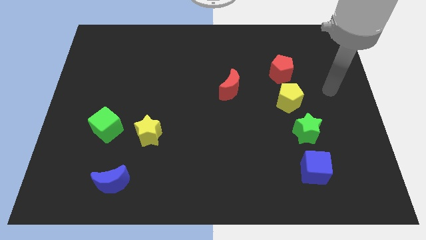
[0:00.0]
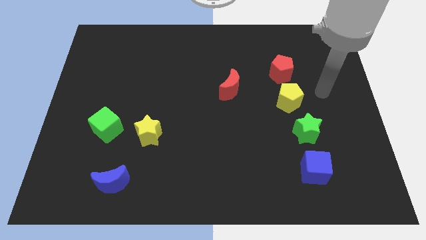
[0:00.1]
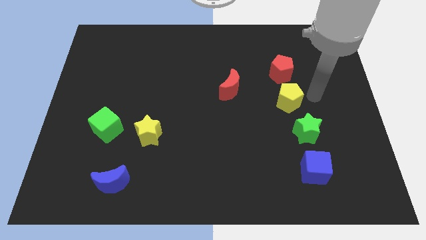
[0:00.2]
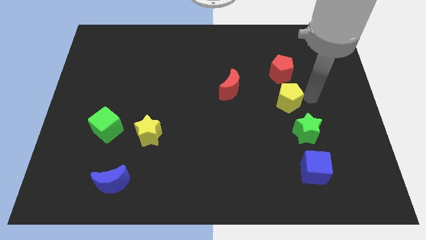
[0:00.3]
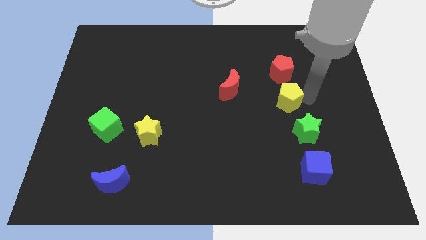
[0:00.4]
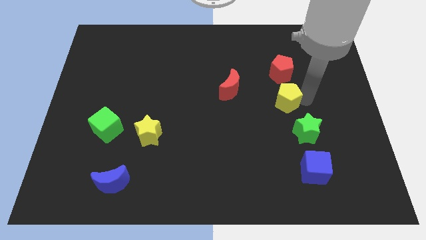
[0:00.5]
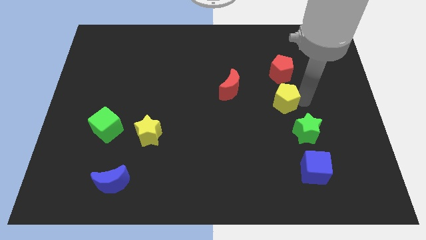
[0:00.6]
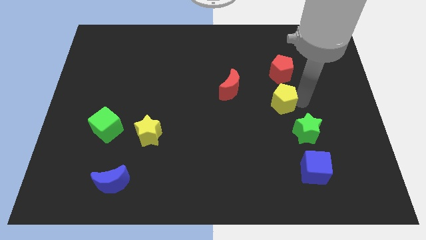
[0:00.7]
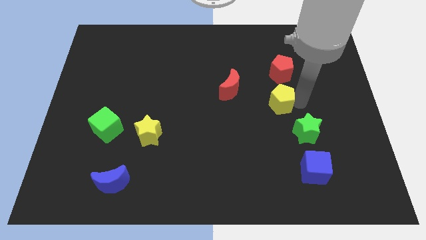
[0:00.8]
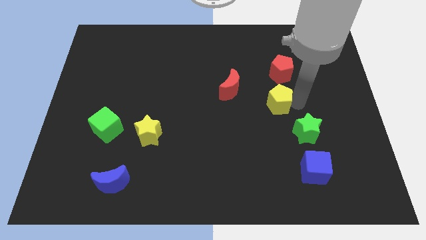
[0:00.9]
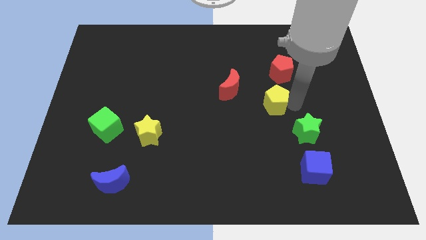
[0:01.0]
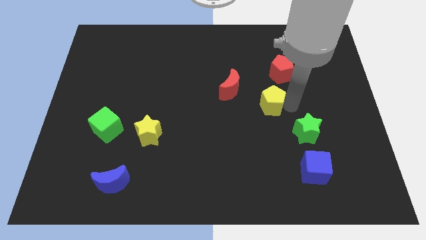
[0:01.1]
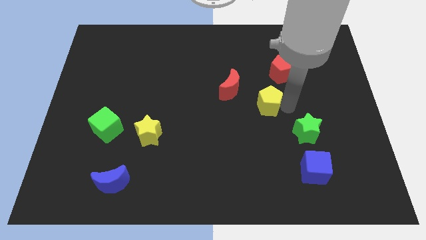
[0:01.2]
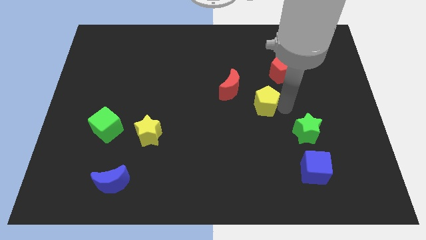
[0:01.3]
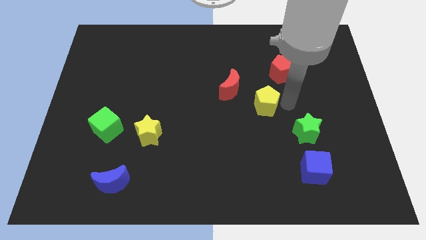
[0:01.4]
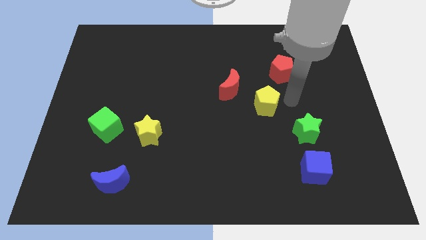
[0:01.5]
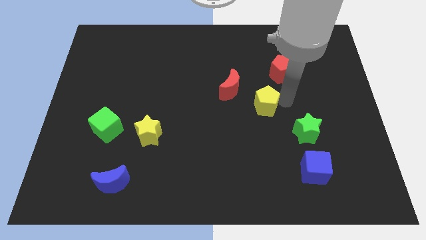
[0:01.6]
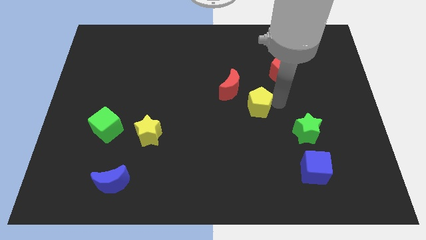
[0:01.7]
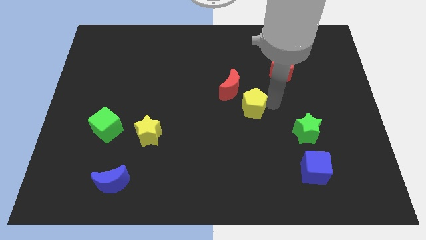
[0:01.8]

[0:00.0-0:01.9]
separate the yellow pentagon from the green star and red pentagon

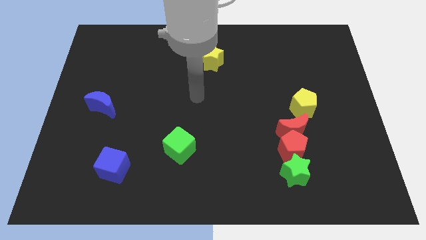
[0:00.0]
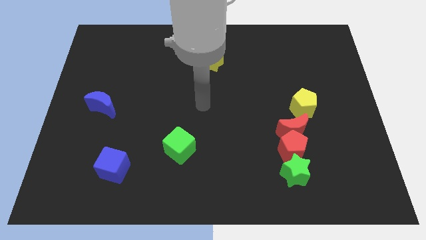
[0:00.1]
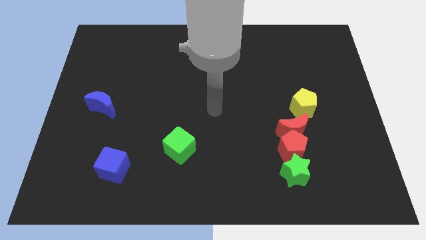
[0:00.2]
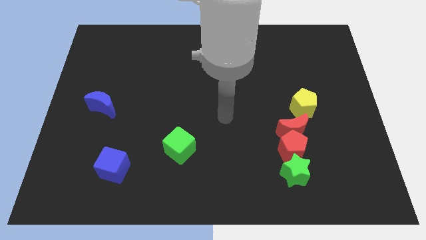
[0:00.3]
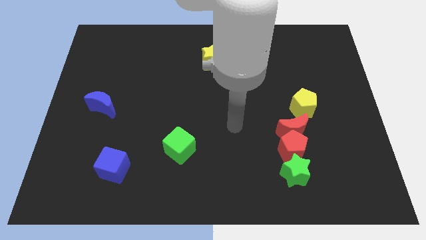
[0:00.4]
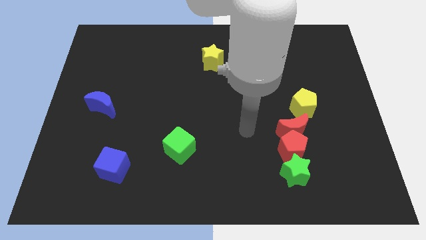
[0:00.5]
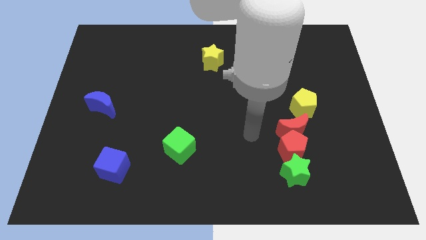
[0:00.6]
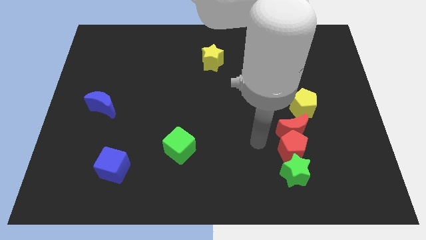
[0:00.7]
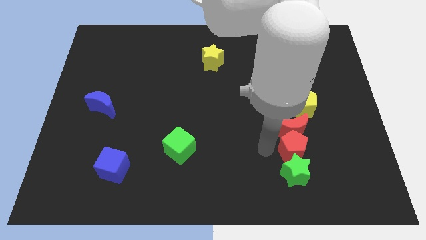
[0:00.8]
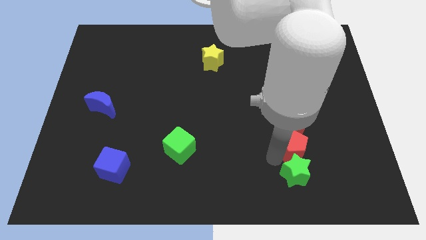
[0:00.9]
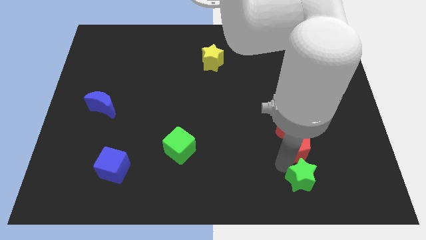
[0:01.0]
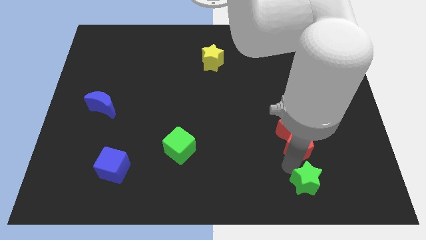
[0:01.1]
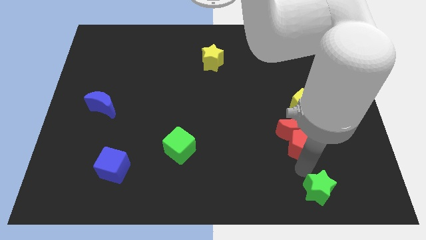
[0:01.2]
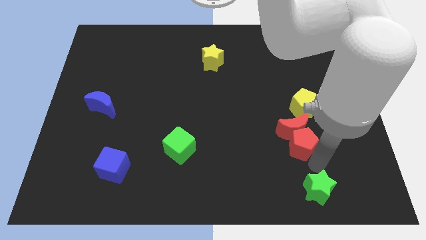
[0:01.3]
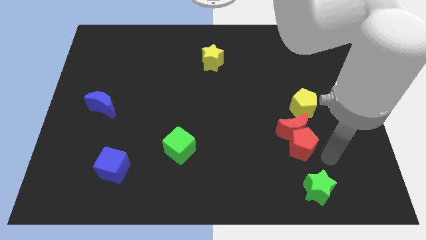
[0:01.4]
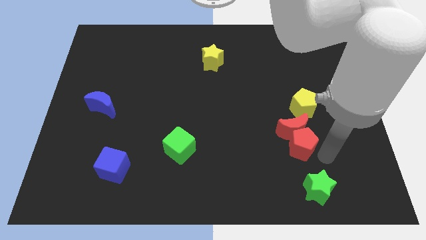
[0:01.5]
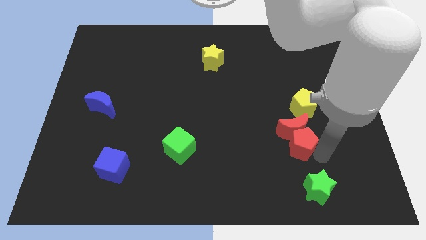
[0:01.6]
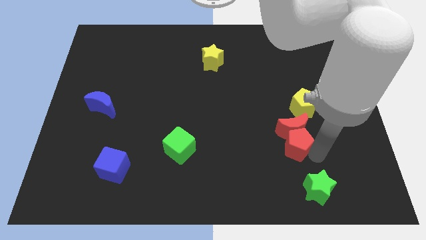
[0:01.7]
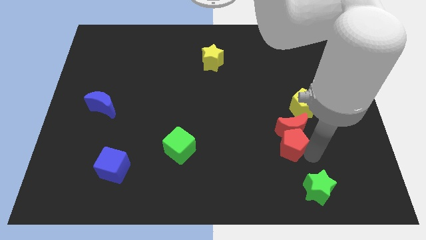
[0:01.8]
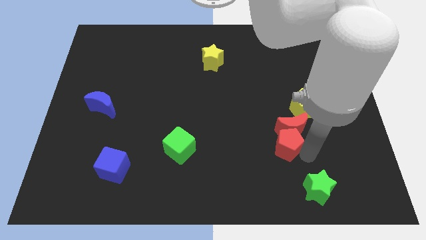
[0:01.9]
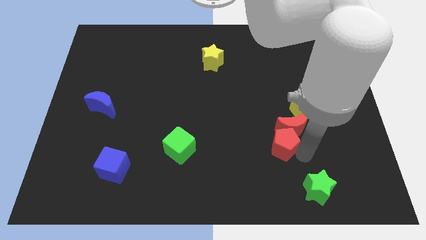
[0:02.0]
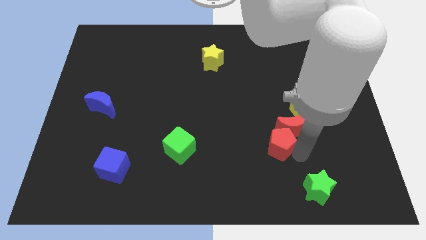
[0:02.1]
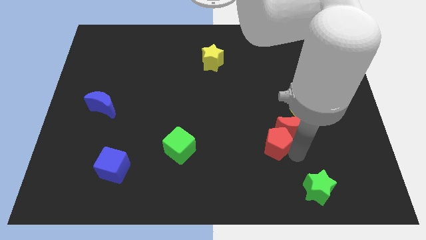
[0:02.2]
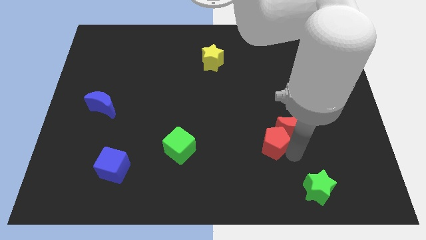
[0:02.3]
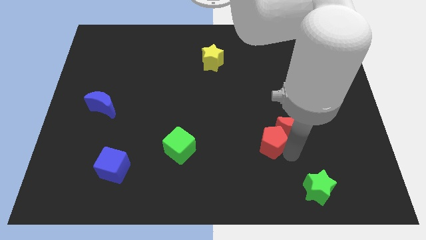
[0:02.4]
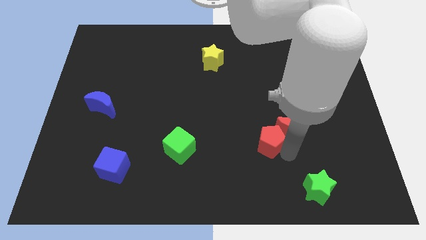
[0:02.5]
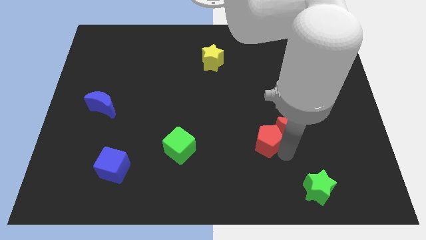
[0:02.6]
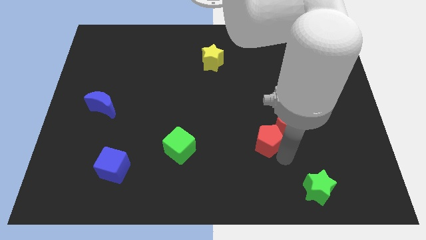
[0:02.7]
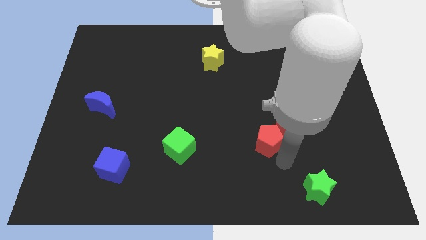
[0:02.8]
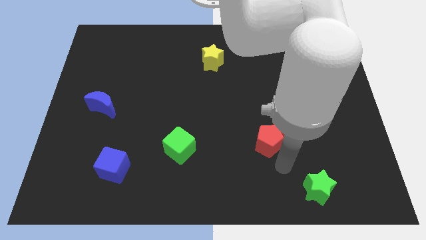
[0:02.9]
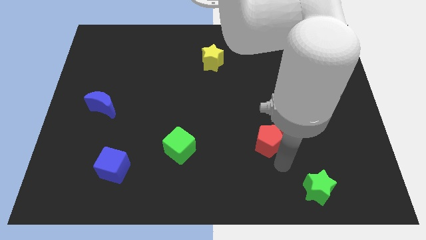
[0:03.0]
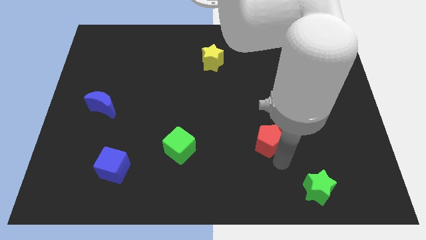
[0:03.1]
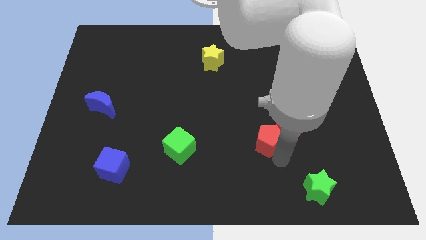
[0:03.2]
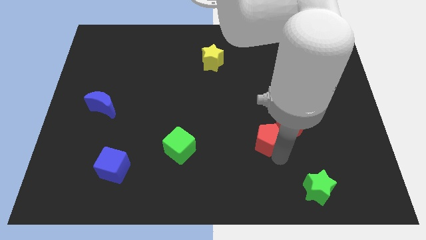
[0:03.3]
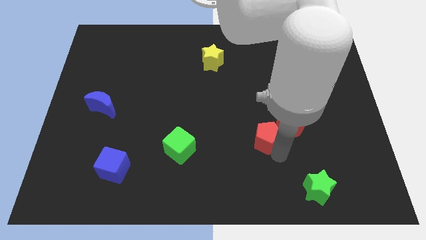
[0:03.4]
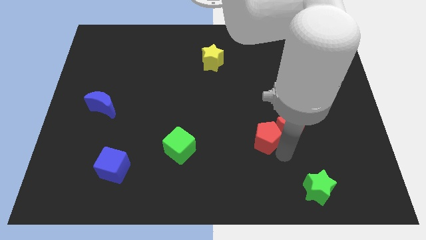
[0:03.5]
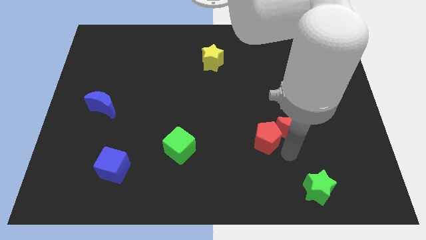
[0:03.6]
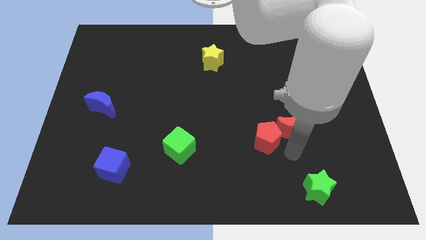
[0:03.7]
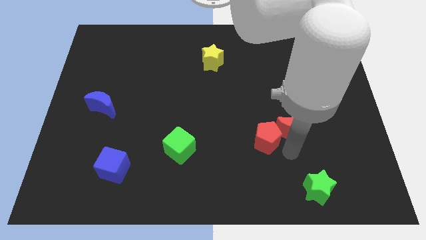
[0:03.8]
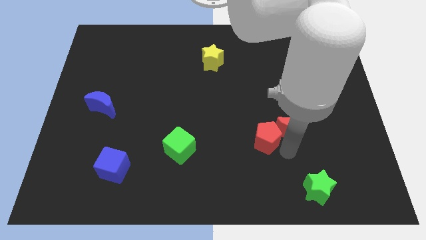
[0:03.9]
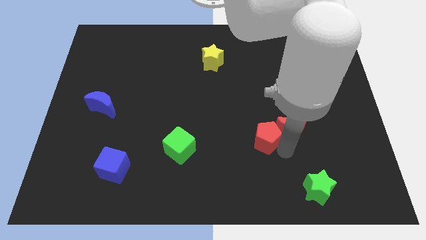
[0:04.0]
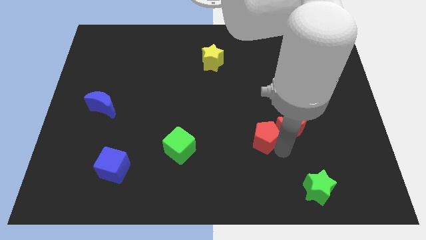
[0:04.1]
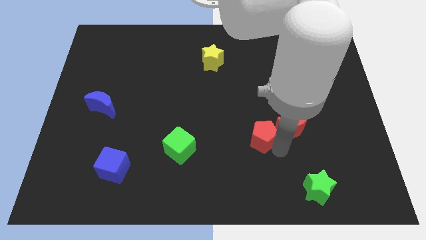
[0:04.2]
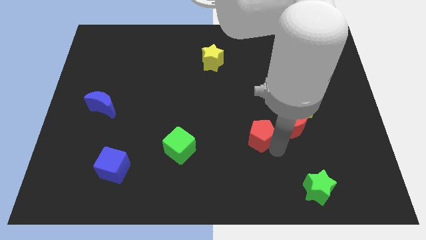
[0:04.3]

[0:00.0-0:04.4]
pull the red pentagon apart from the red moon and green star

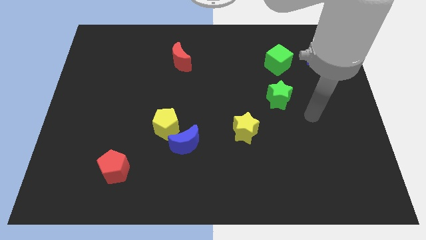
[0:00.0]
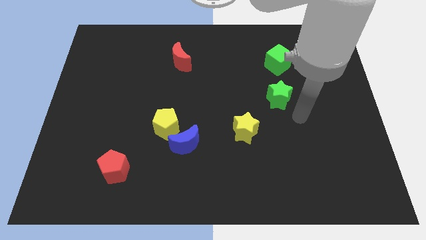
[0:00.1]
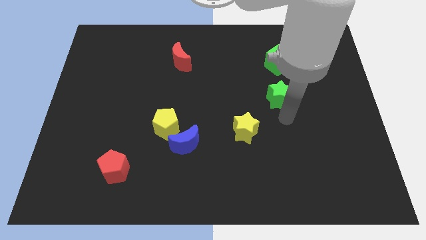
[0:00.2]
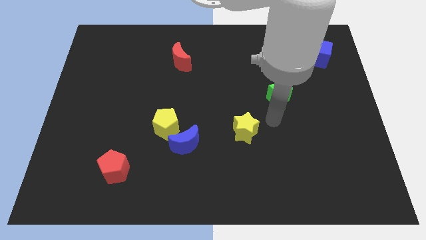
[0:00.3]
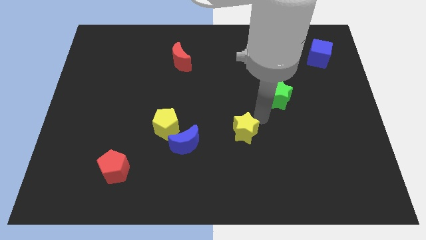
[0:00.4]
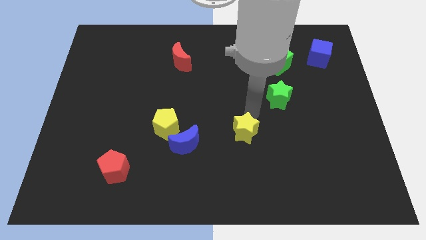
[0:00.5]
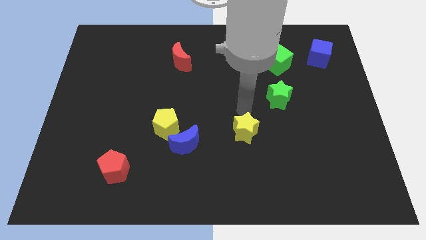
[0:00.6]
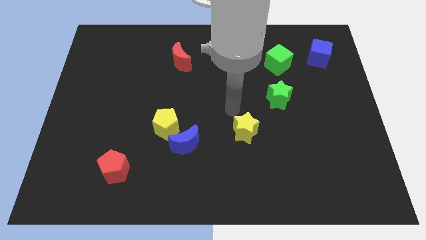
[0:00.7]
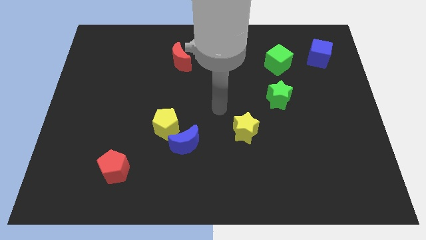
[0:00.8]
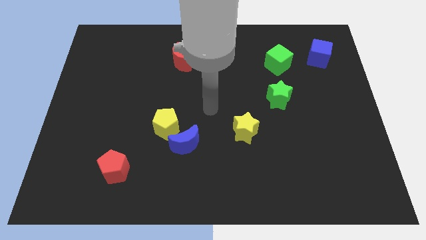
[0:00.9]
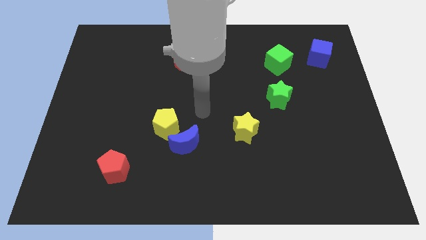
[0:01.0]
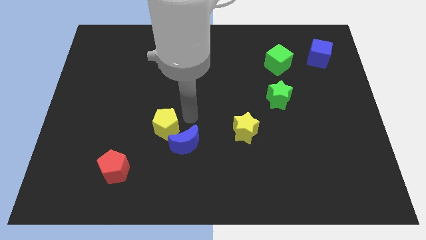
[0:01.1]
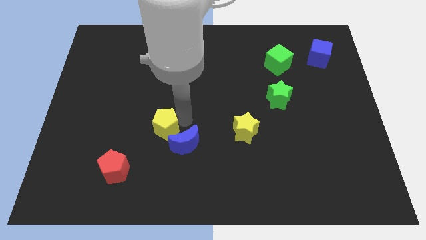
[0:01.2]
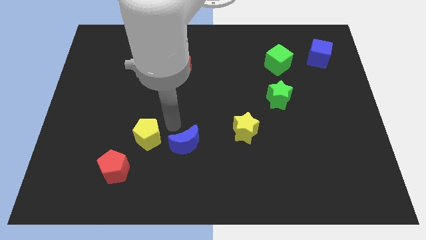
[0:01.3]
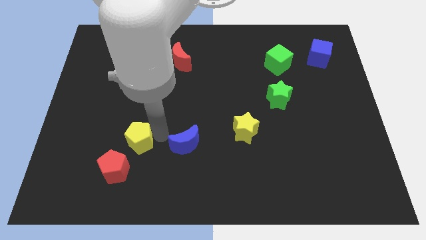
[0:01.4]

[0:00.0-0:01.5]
pull the blue moon apart from the yellow pentagon

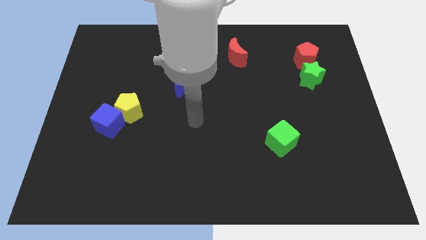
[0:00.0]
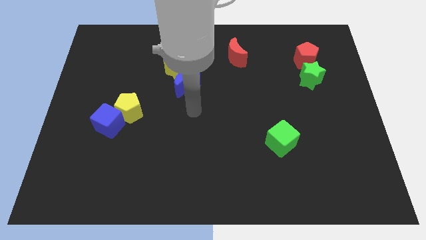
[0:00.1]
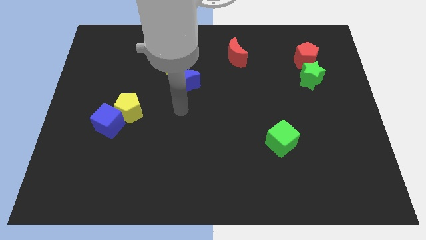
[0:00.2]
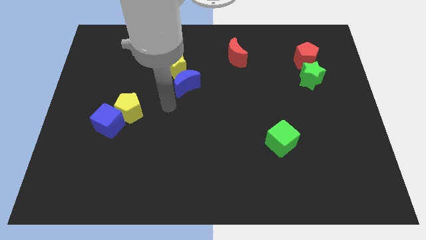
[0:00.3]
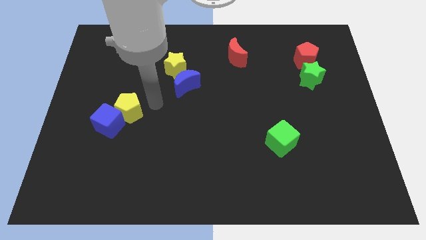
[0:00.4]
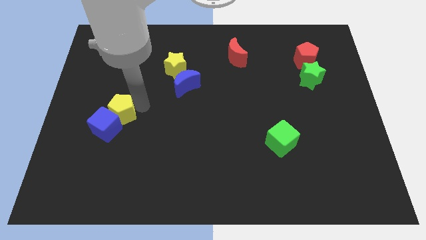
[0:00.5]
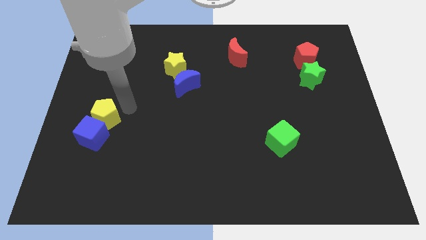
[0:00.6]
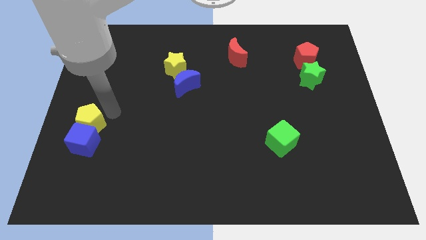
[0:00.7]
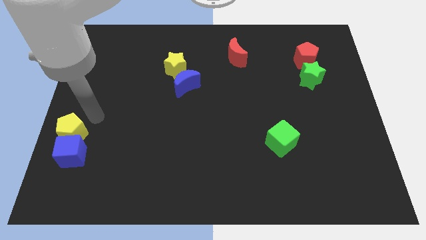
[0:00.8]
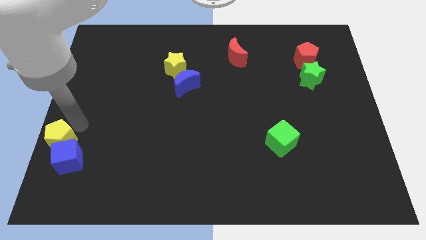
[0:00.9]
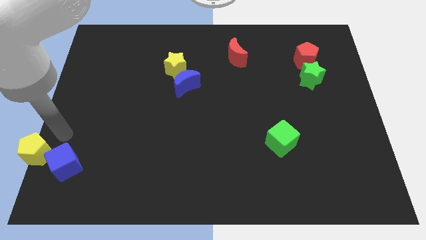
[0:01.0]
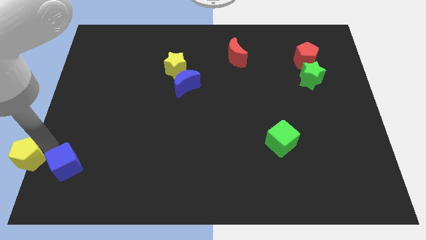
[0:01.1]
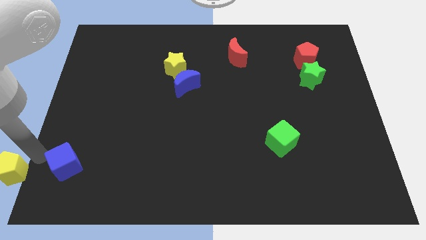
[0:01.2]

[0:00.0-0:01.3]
move the blue cube away from the yellow pentagon

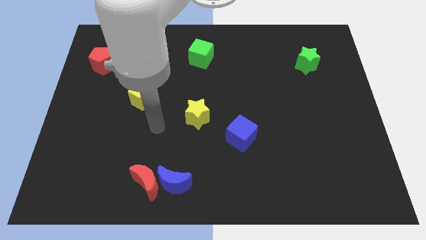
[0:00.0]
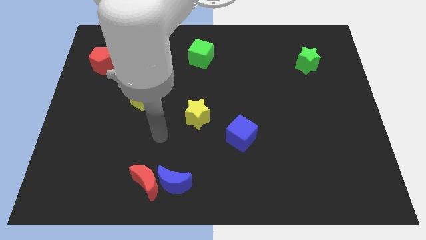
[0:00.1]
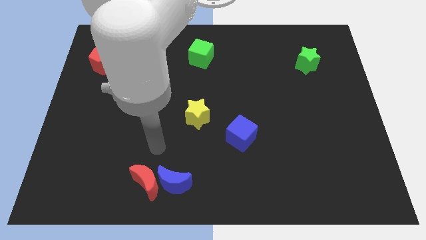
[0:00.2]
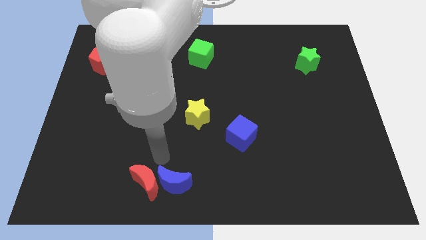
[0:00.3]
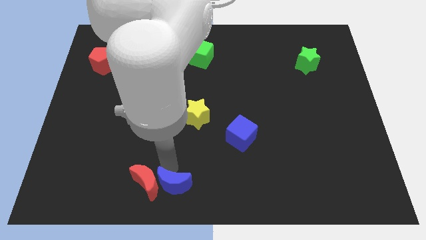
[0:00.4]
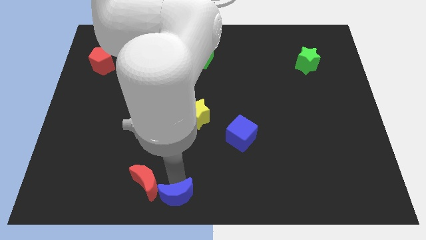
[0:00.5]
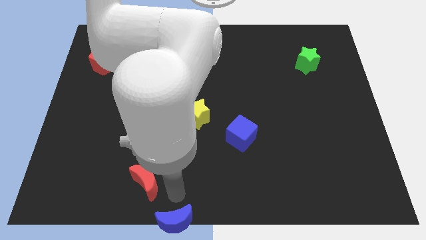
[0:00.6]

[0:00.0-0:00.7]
pull the red moon apart from the blue moon
